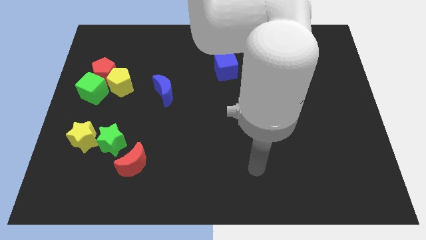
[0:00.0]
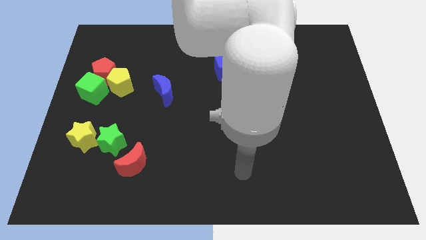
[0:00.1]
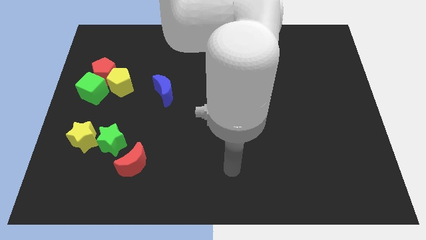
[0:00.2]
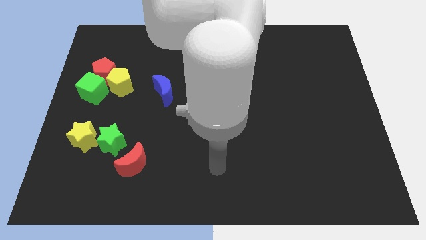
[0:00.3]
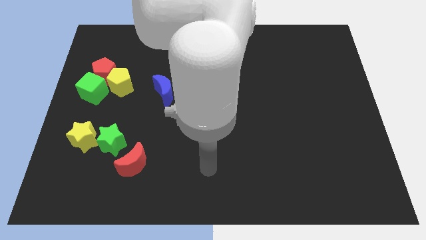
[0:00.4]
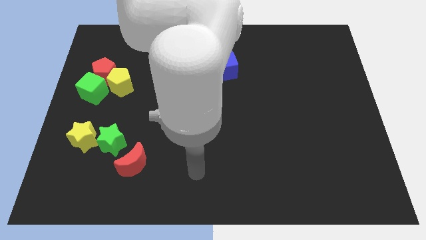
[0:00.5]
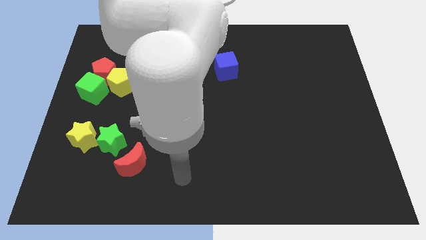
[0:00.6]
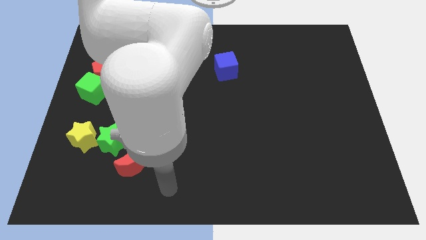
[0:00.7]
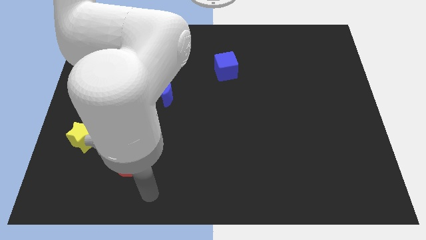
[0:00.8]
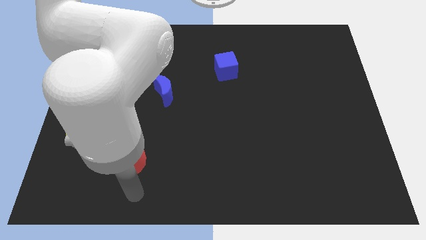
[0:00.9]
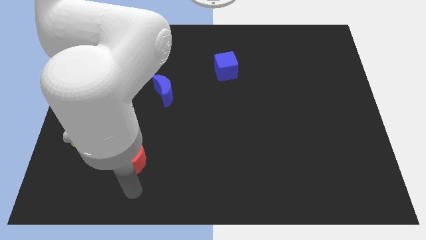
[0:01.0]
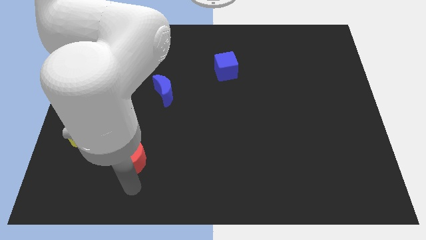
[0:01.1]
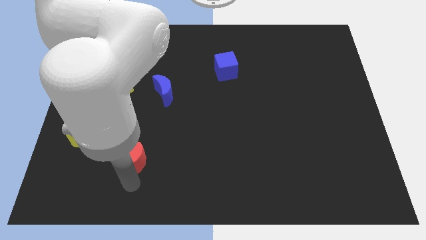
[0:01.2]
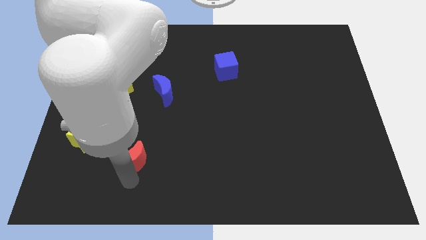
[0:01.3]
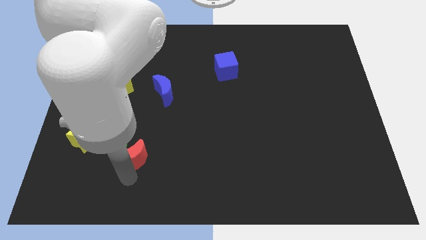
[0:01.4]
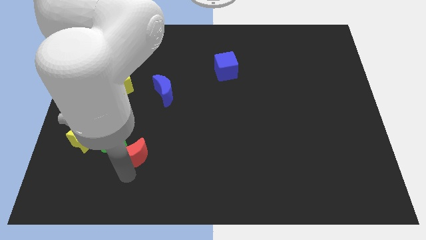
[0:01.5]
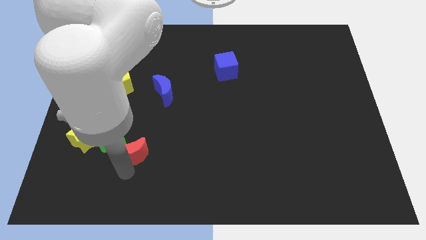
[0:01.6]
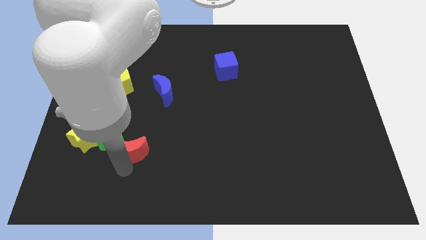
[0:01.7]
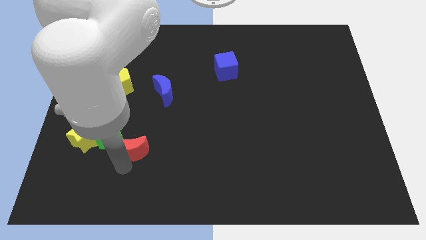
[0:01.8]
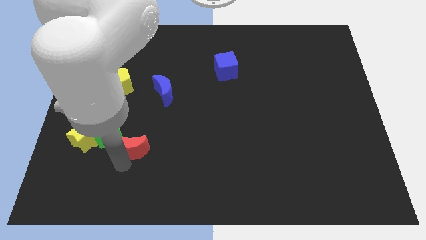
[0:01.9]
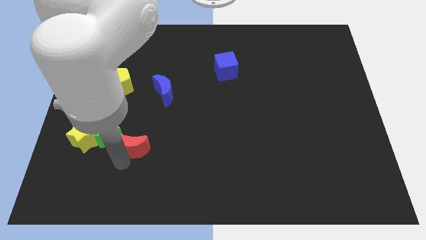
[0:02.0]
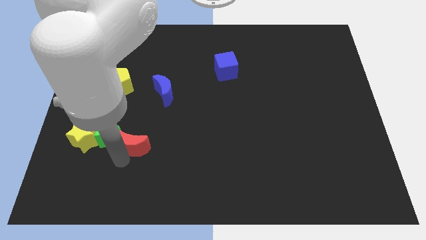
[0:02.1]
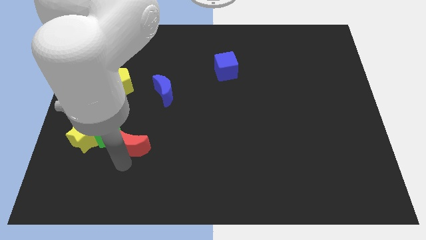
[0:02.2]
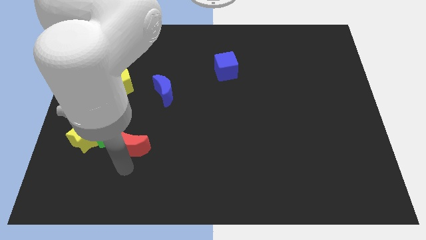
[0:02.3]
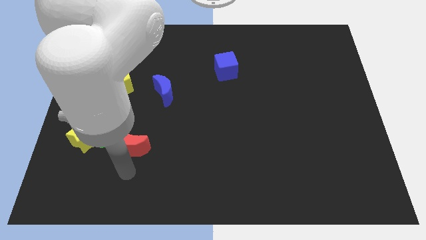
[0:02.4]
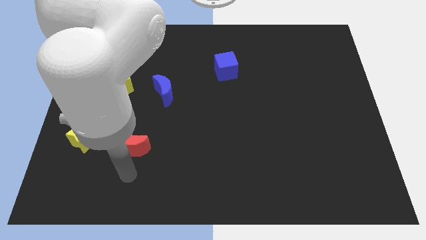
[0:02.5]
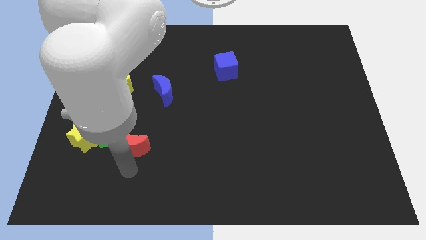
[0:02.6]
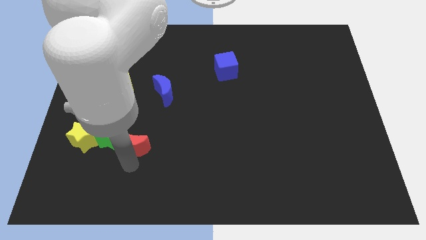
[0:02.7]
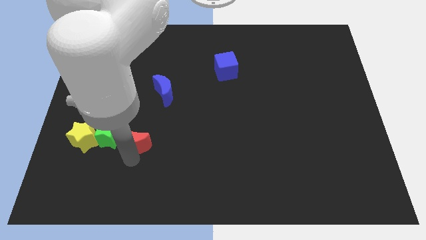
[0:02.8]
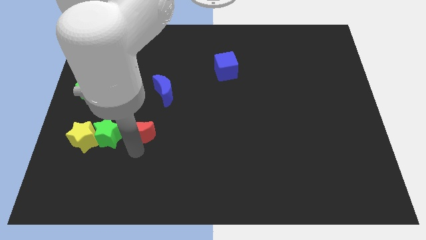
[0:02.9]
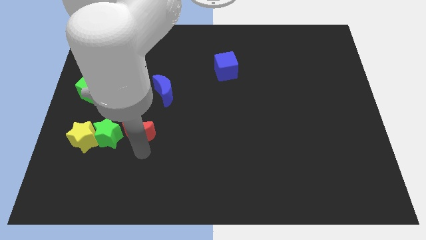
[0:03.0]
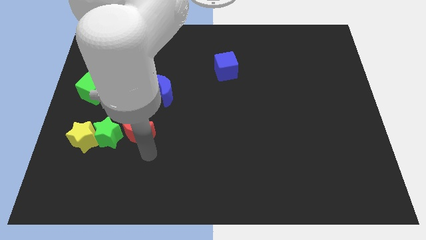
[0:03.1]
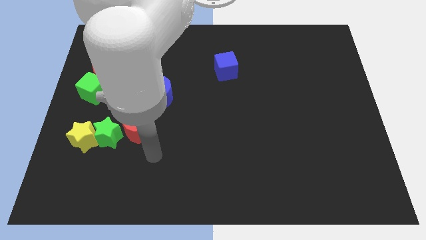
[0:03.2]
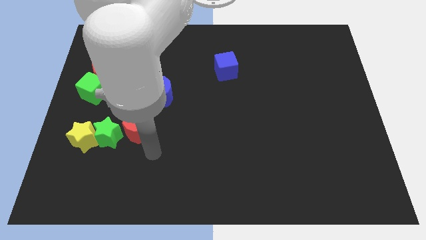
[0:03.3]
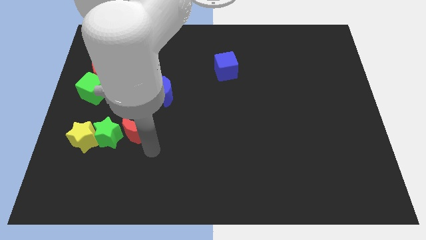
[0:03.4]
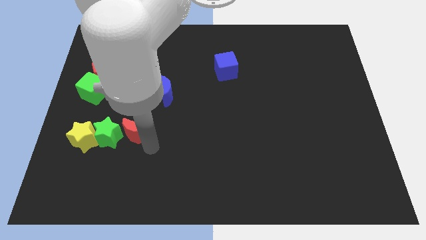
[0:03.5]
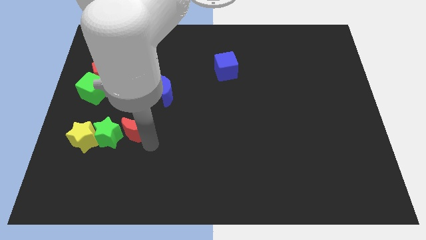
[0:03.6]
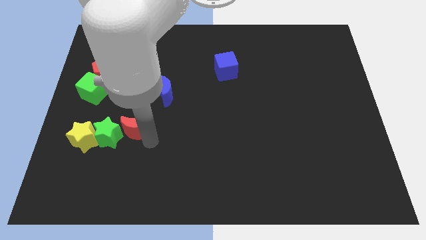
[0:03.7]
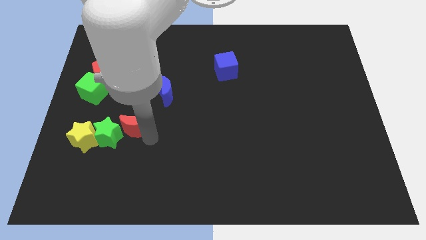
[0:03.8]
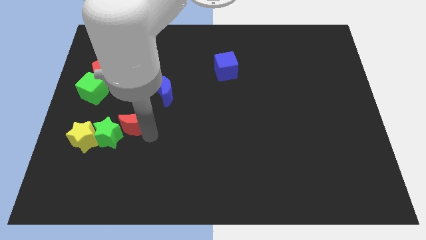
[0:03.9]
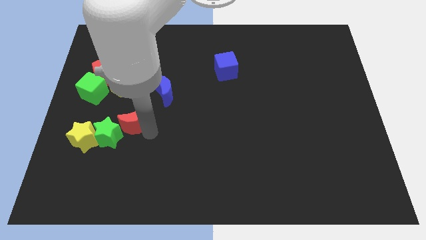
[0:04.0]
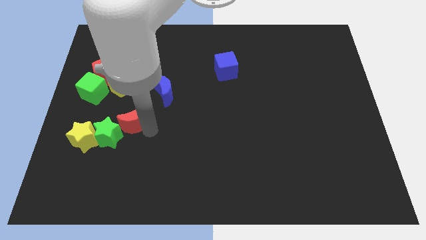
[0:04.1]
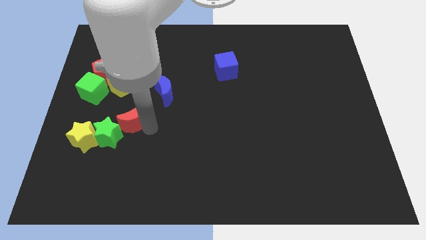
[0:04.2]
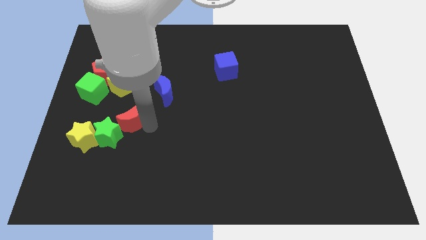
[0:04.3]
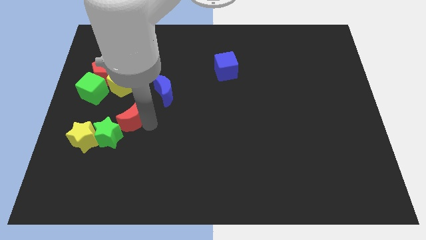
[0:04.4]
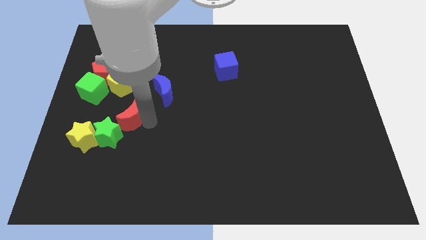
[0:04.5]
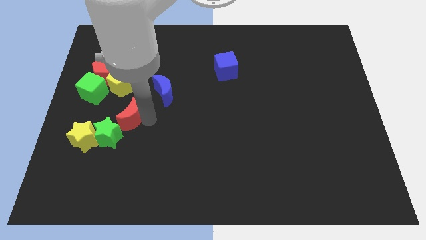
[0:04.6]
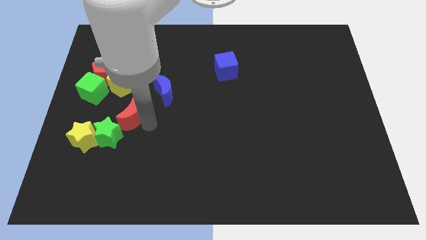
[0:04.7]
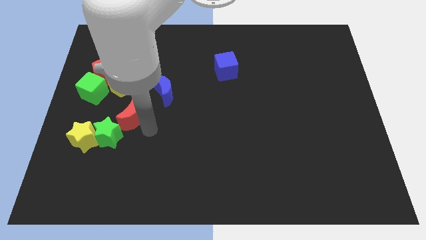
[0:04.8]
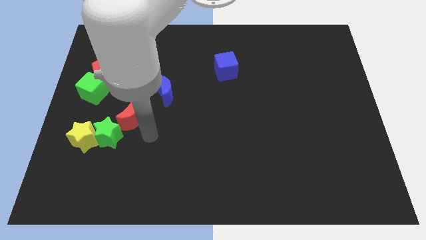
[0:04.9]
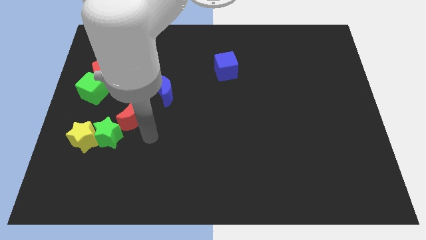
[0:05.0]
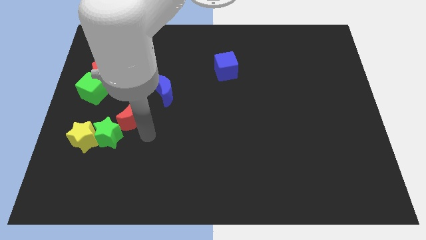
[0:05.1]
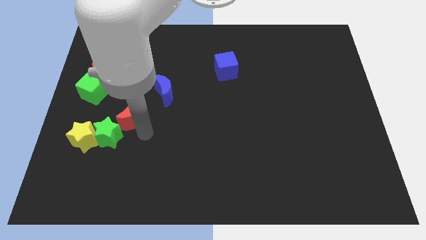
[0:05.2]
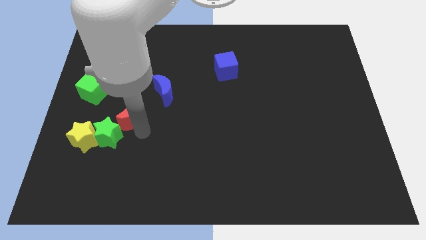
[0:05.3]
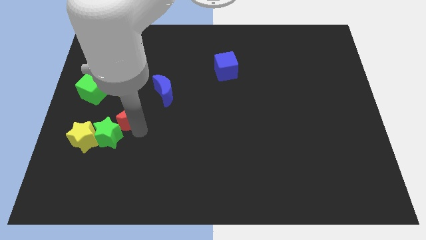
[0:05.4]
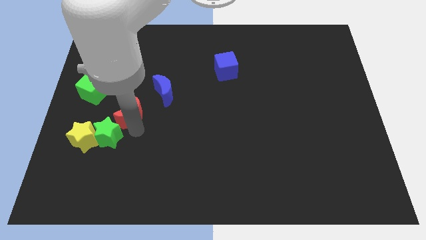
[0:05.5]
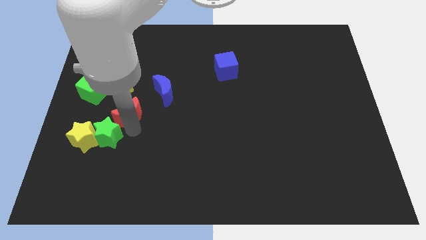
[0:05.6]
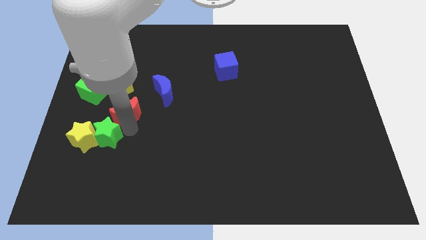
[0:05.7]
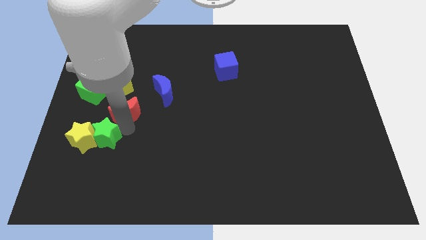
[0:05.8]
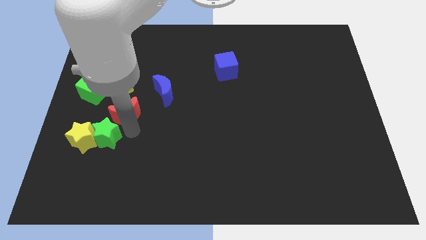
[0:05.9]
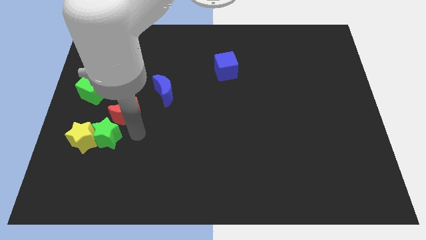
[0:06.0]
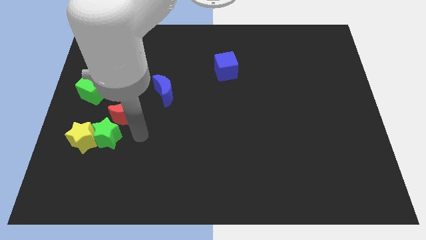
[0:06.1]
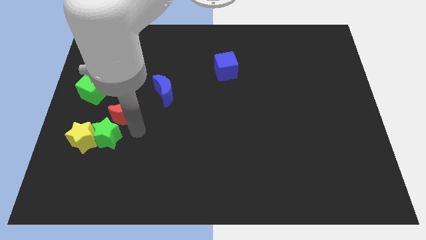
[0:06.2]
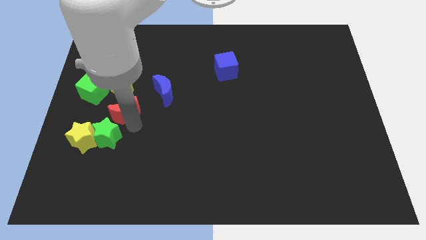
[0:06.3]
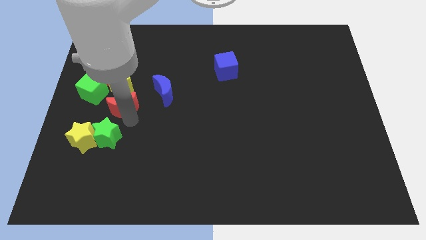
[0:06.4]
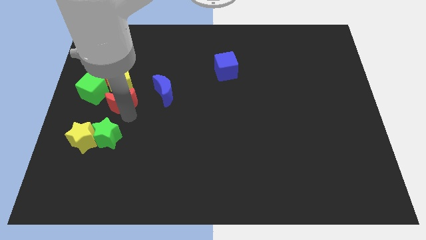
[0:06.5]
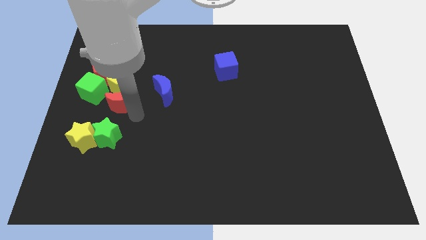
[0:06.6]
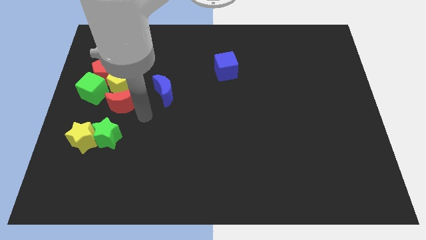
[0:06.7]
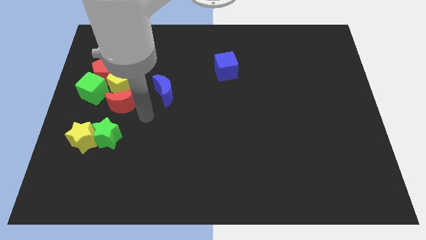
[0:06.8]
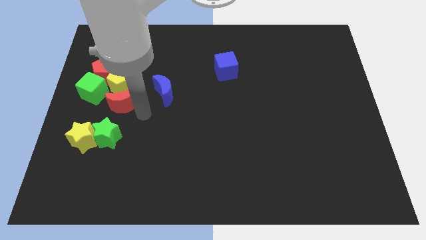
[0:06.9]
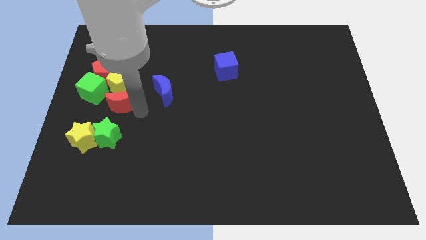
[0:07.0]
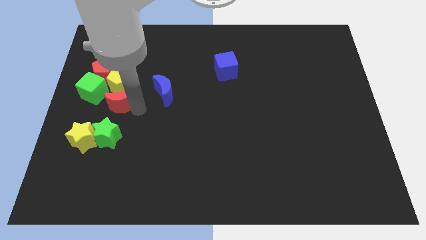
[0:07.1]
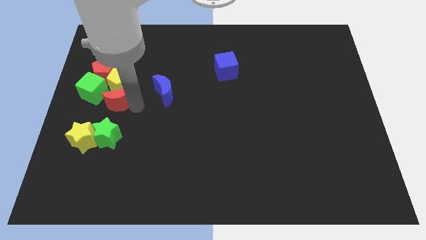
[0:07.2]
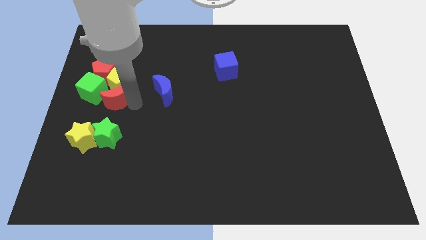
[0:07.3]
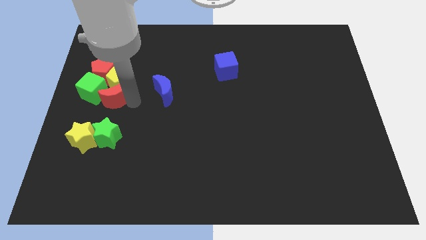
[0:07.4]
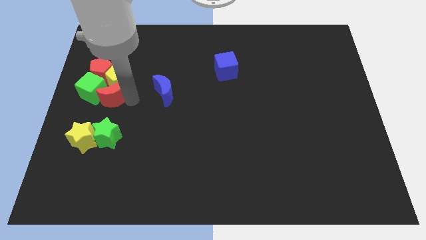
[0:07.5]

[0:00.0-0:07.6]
push the red moon towards the green cube
